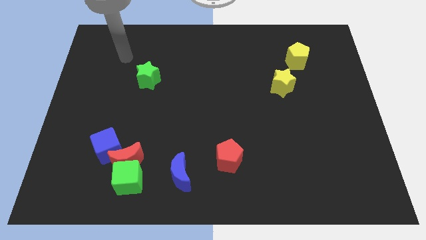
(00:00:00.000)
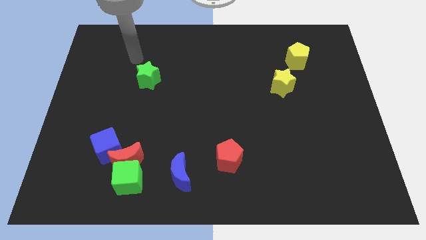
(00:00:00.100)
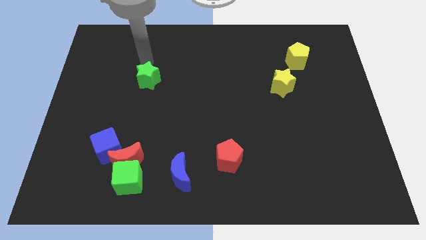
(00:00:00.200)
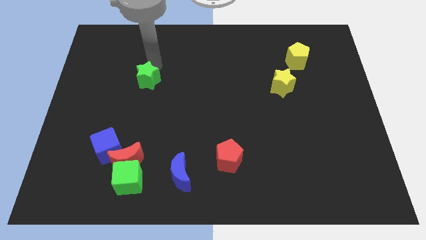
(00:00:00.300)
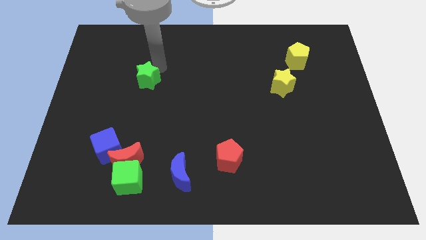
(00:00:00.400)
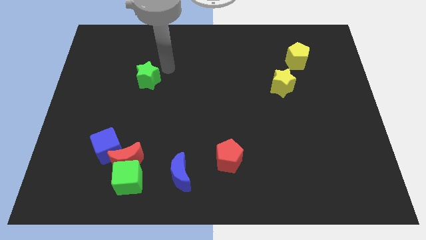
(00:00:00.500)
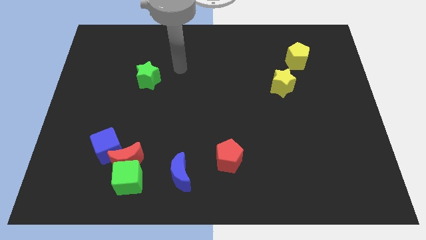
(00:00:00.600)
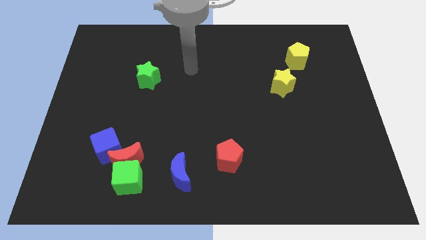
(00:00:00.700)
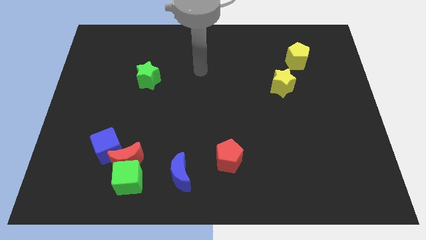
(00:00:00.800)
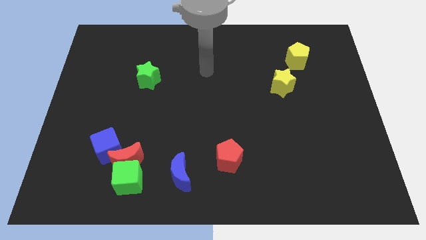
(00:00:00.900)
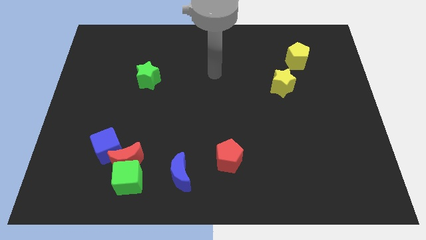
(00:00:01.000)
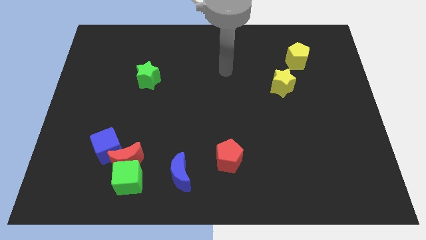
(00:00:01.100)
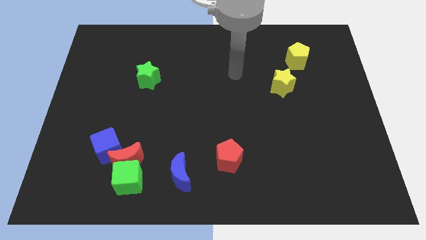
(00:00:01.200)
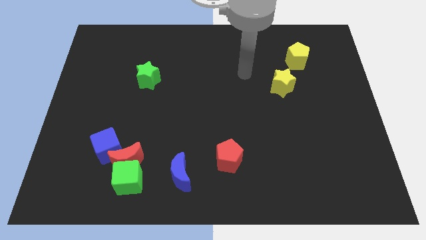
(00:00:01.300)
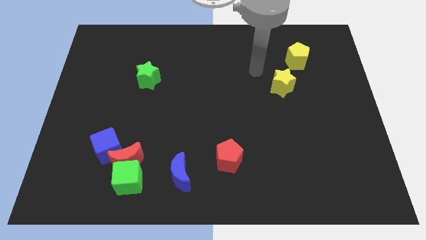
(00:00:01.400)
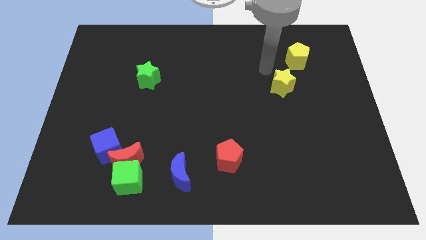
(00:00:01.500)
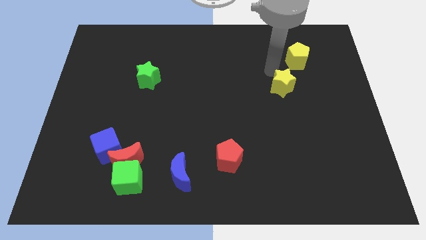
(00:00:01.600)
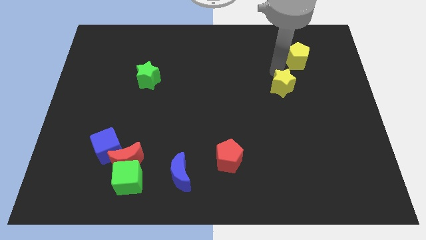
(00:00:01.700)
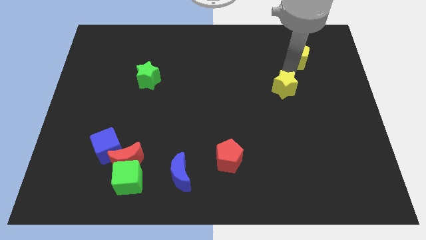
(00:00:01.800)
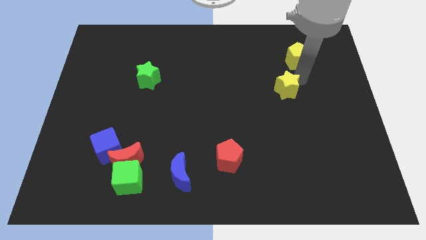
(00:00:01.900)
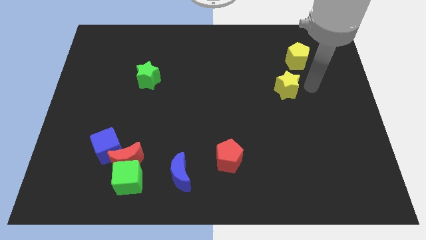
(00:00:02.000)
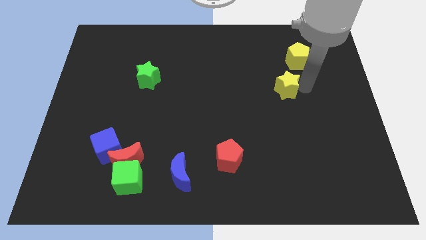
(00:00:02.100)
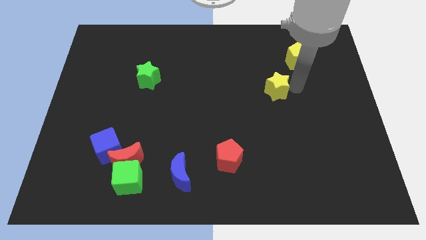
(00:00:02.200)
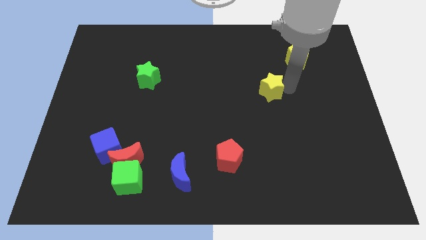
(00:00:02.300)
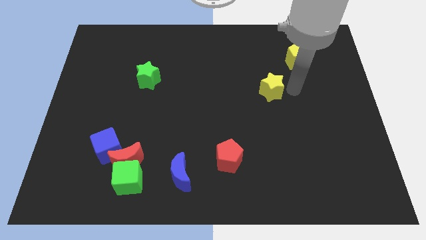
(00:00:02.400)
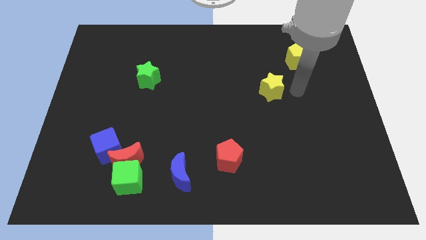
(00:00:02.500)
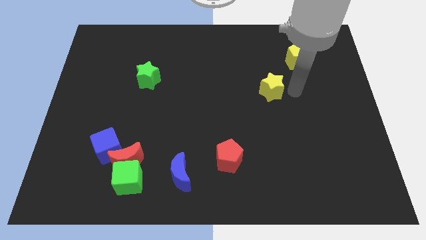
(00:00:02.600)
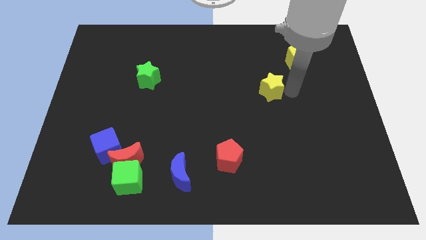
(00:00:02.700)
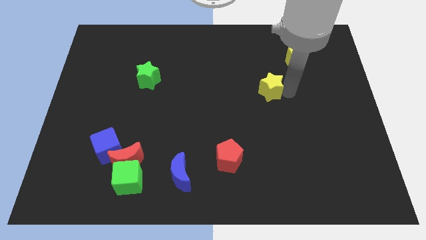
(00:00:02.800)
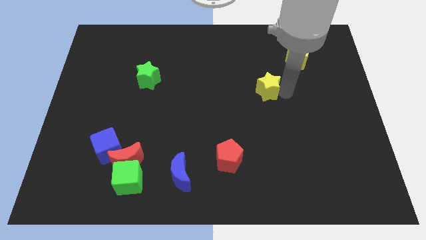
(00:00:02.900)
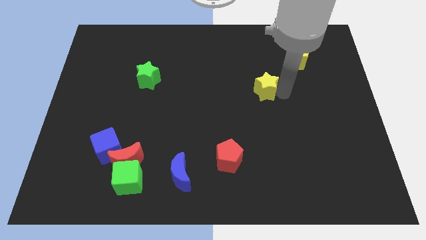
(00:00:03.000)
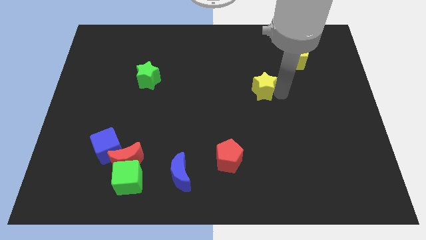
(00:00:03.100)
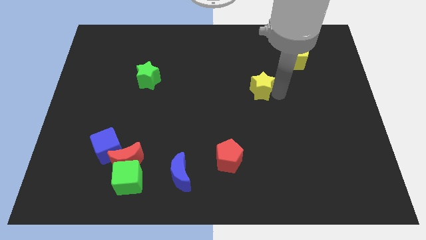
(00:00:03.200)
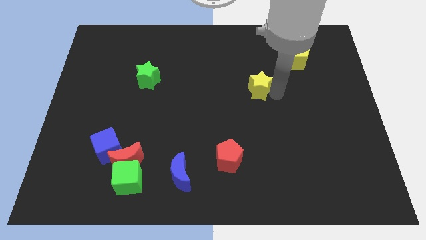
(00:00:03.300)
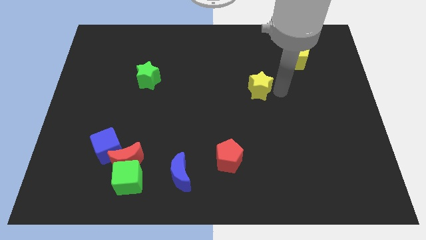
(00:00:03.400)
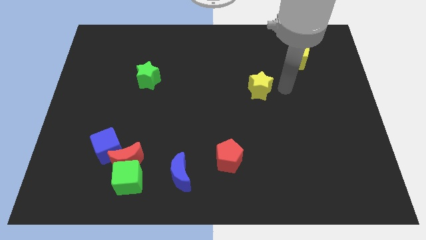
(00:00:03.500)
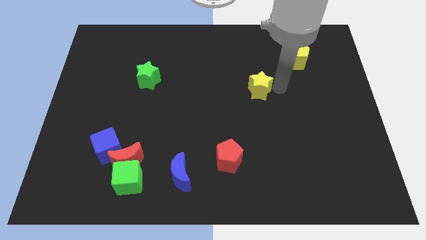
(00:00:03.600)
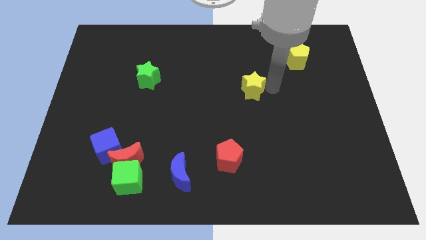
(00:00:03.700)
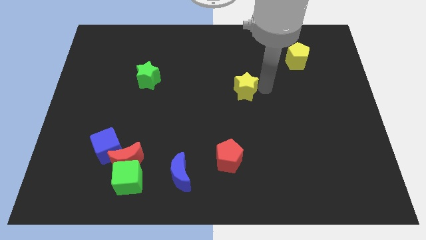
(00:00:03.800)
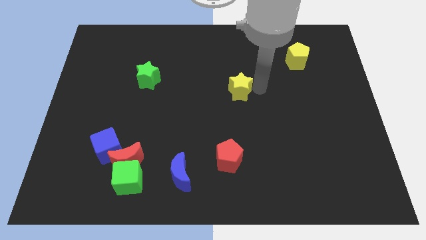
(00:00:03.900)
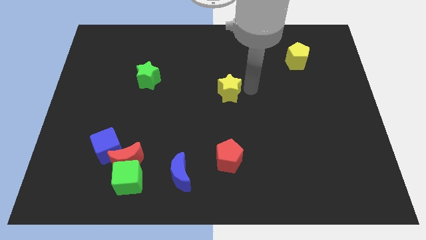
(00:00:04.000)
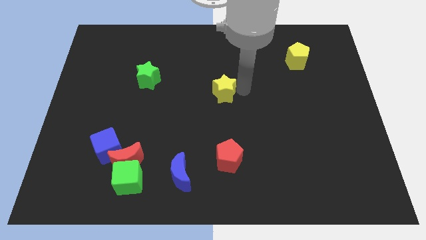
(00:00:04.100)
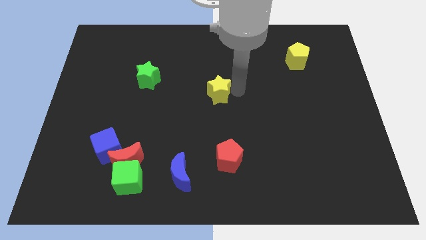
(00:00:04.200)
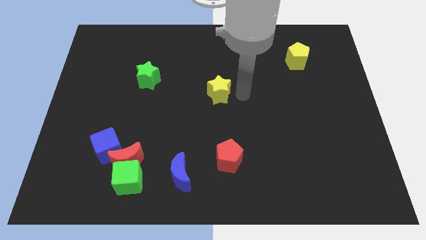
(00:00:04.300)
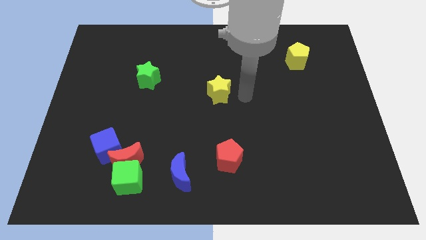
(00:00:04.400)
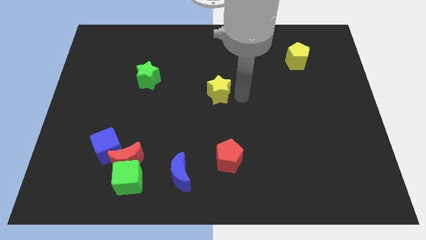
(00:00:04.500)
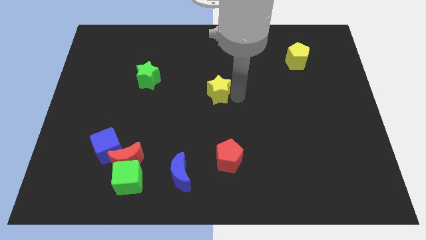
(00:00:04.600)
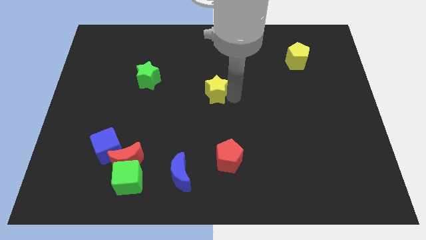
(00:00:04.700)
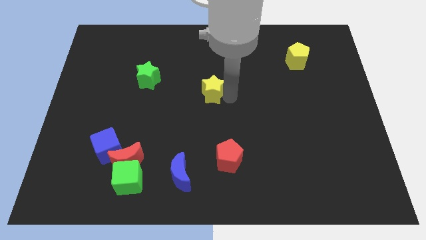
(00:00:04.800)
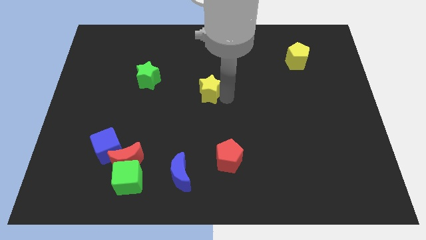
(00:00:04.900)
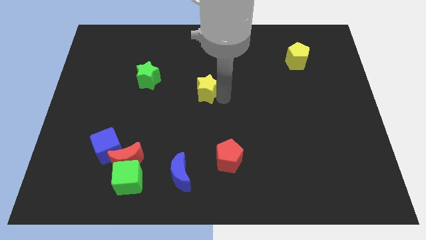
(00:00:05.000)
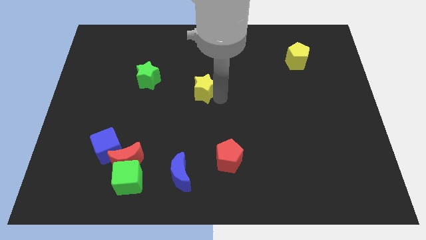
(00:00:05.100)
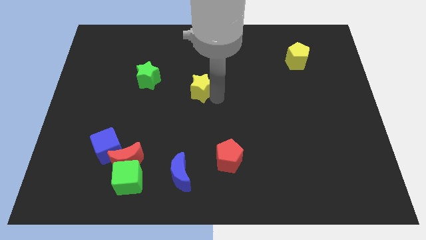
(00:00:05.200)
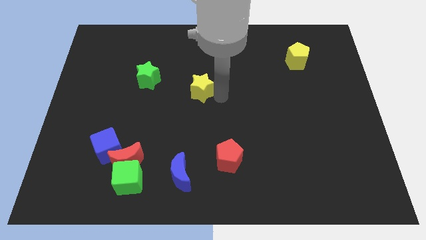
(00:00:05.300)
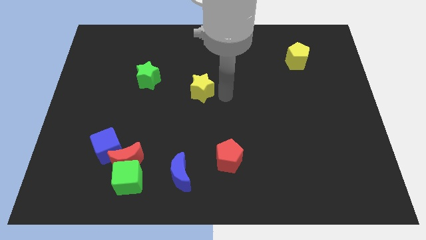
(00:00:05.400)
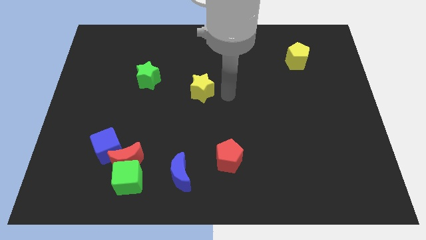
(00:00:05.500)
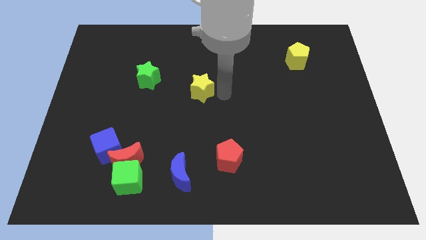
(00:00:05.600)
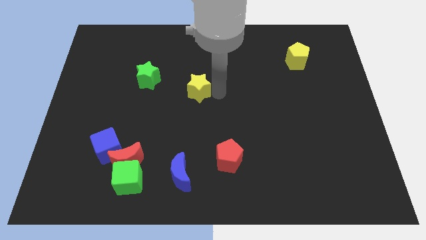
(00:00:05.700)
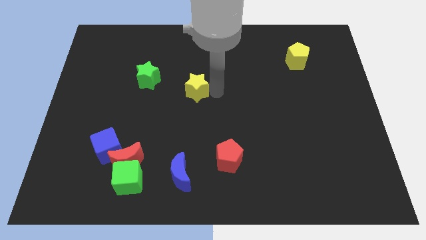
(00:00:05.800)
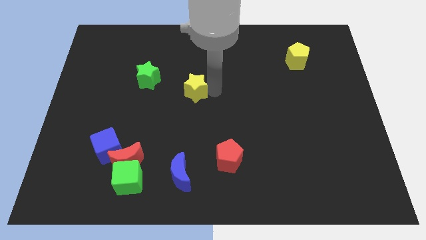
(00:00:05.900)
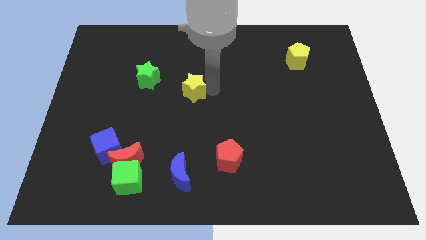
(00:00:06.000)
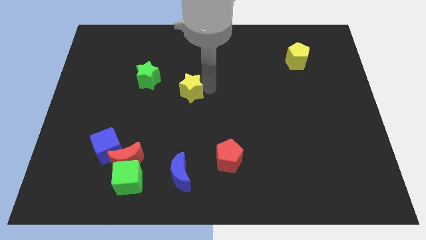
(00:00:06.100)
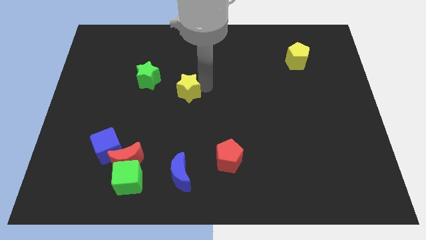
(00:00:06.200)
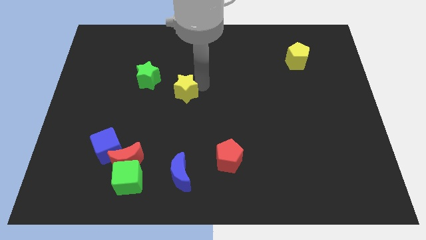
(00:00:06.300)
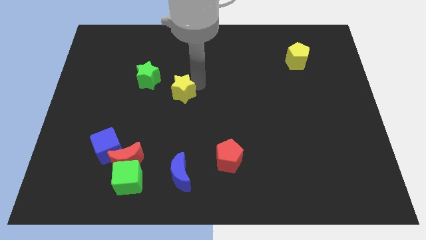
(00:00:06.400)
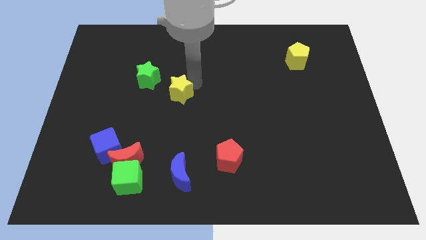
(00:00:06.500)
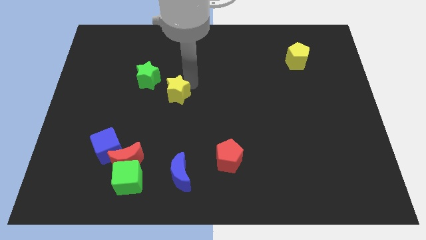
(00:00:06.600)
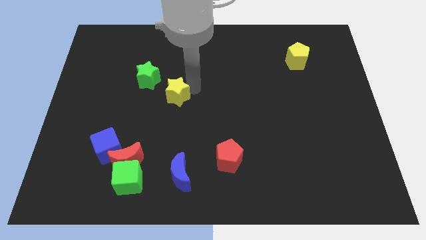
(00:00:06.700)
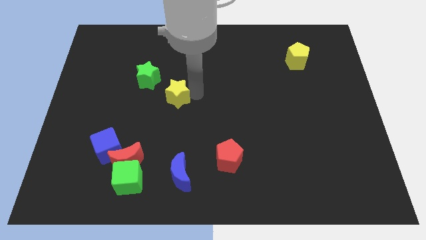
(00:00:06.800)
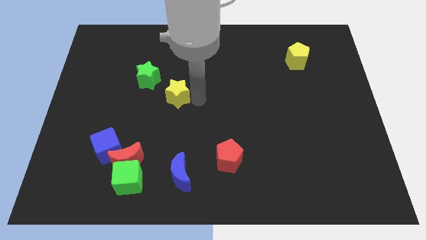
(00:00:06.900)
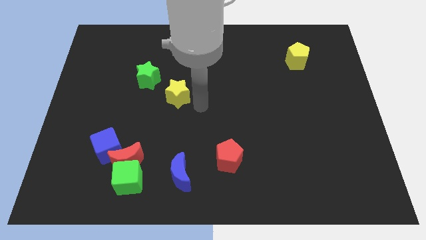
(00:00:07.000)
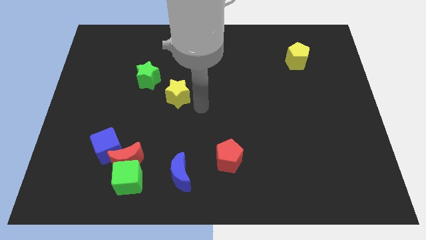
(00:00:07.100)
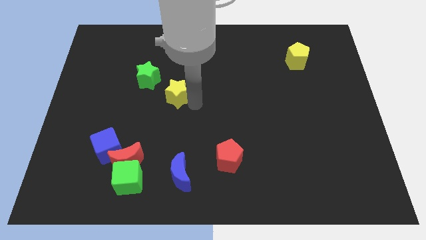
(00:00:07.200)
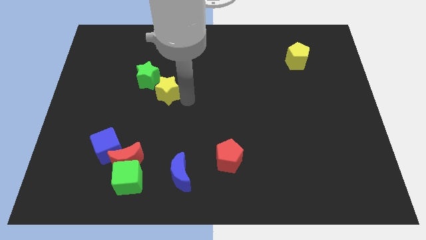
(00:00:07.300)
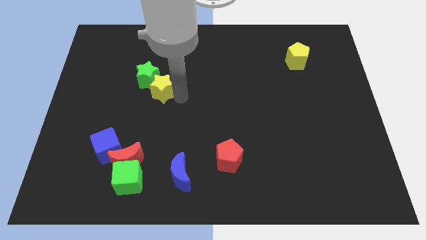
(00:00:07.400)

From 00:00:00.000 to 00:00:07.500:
move the yellow star next to the green star
